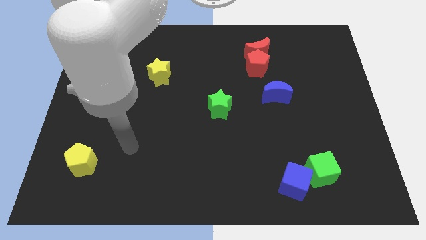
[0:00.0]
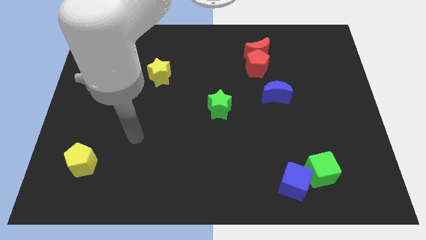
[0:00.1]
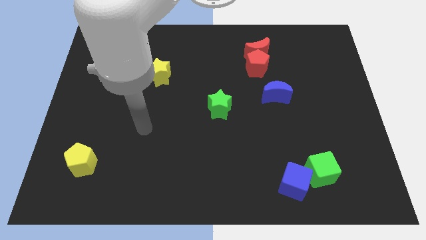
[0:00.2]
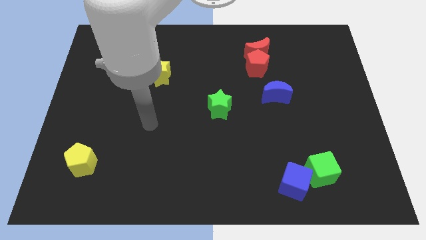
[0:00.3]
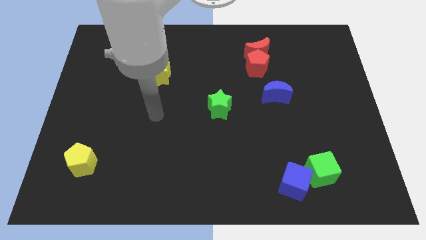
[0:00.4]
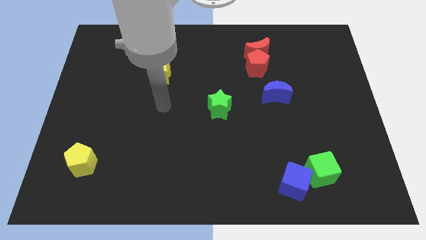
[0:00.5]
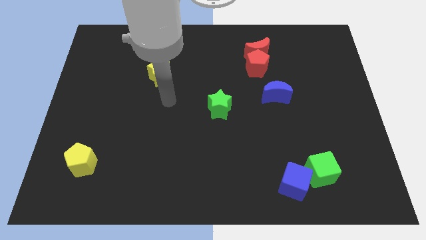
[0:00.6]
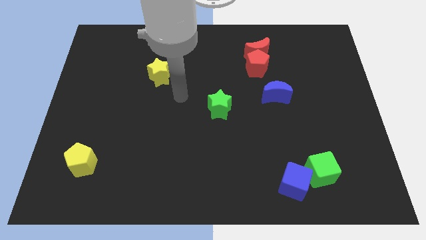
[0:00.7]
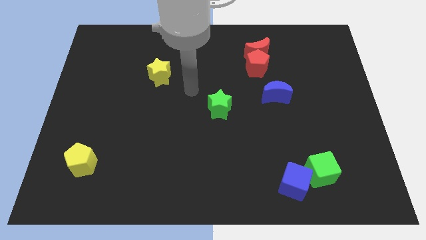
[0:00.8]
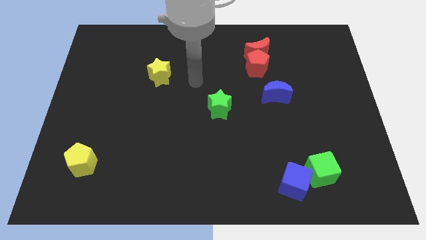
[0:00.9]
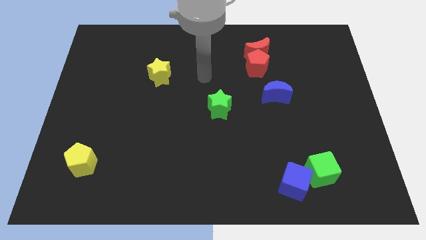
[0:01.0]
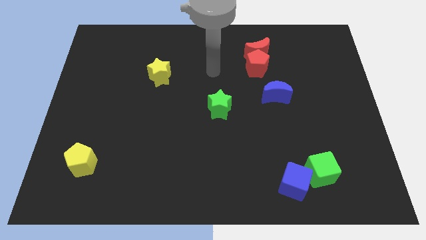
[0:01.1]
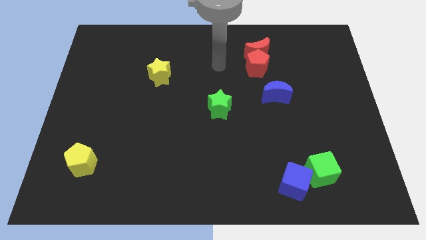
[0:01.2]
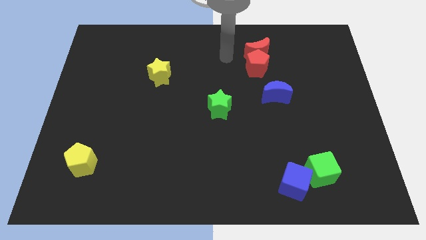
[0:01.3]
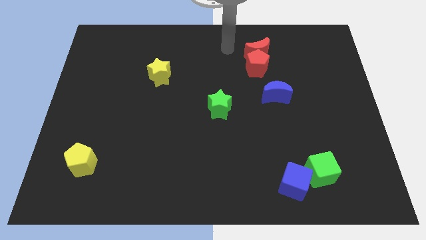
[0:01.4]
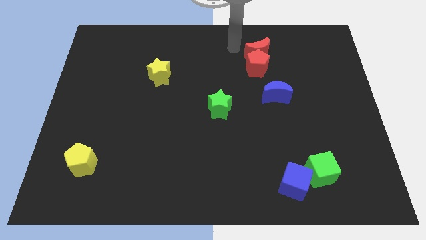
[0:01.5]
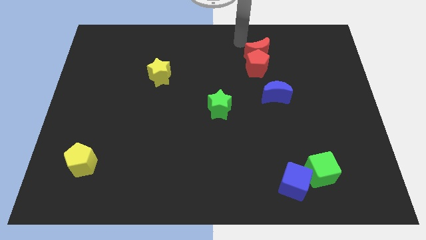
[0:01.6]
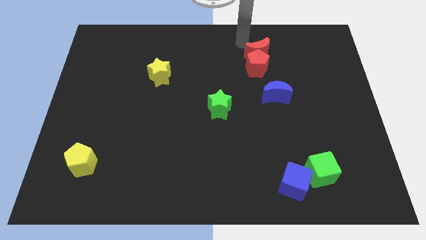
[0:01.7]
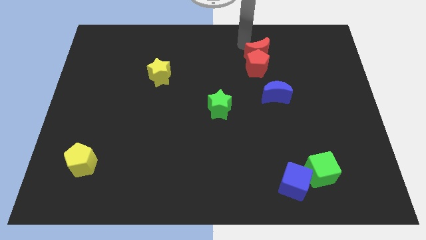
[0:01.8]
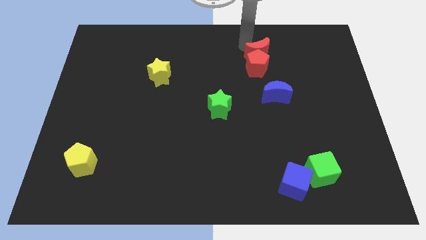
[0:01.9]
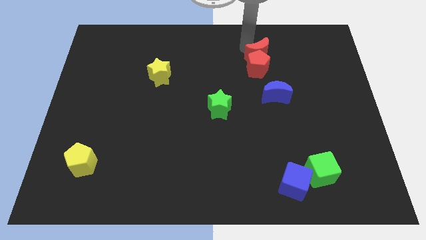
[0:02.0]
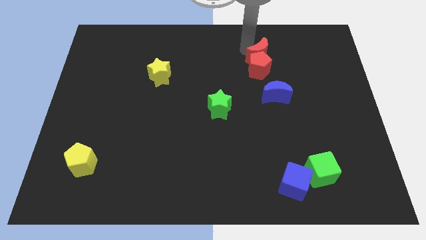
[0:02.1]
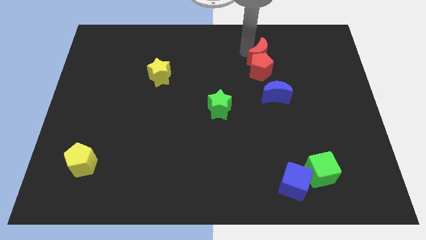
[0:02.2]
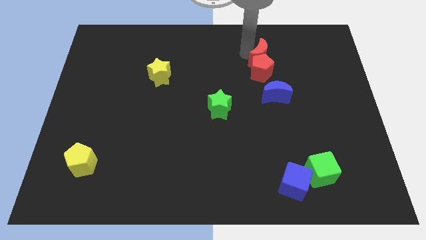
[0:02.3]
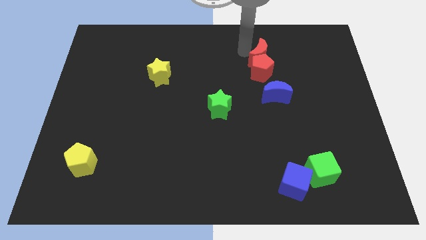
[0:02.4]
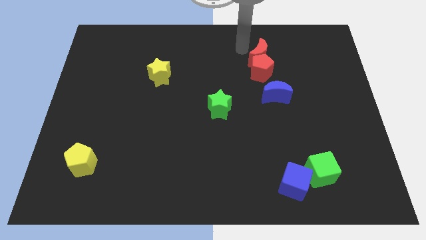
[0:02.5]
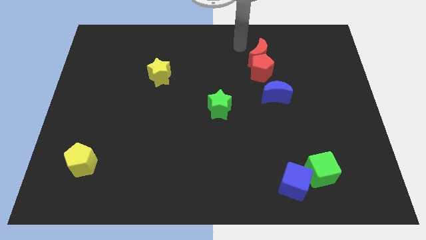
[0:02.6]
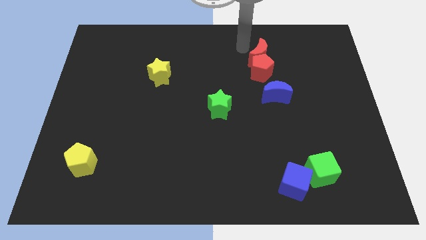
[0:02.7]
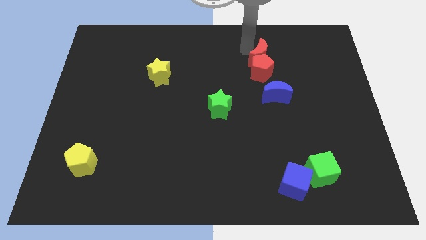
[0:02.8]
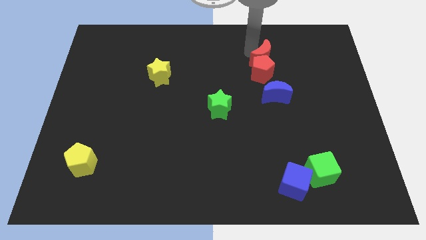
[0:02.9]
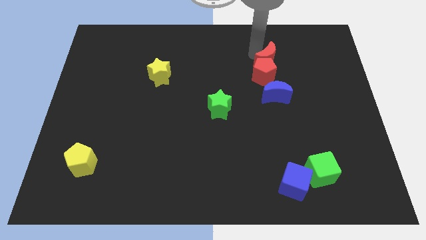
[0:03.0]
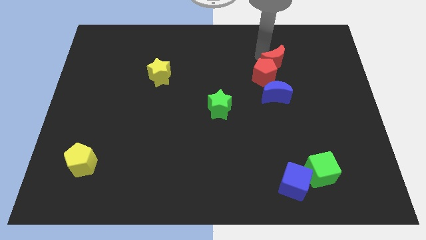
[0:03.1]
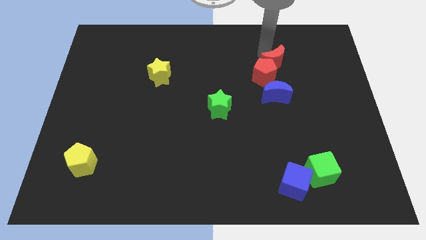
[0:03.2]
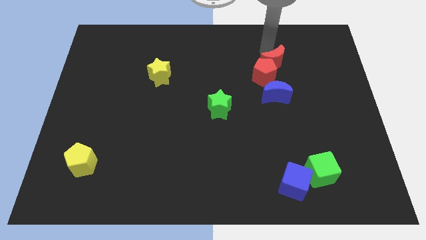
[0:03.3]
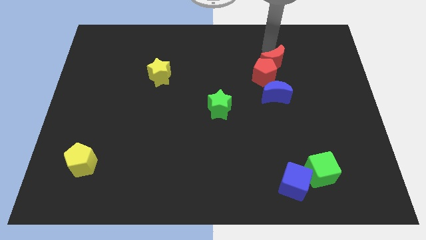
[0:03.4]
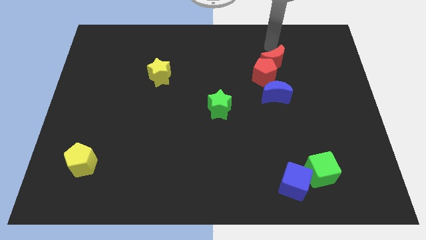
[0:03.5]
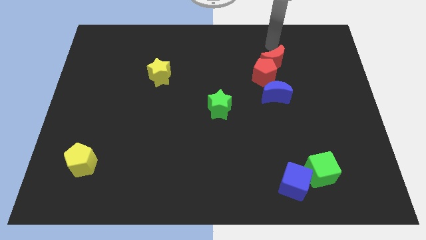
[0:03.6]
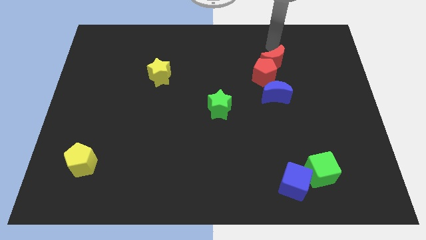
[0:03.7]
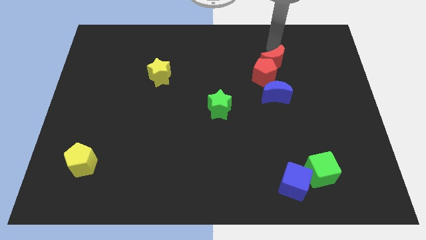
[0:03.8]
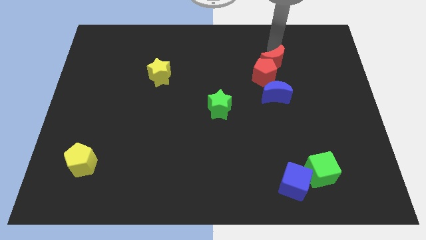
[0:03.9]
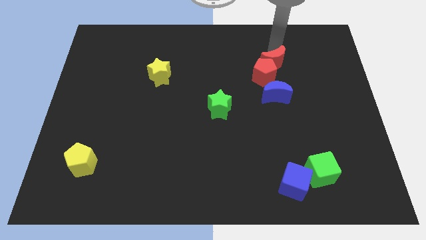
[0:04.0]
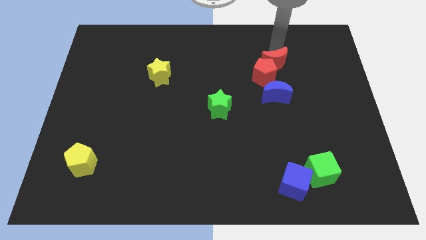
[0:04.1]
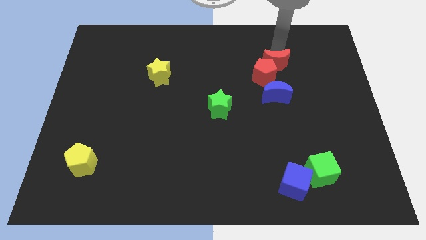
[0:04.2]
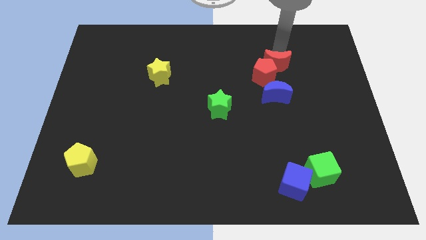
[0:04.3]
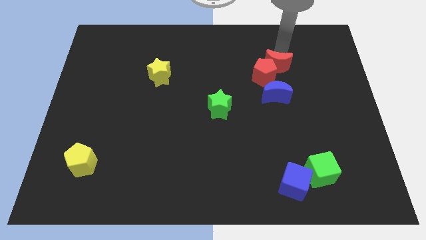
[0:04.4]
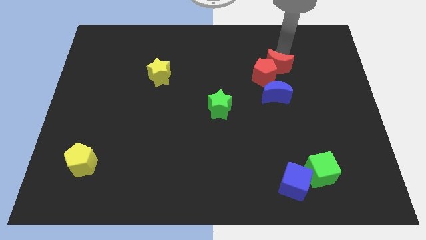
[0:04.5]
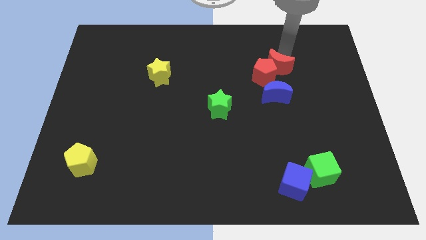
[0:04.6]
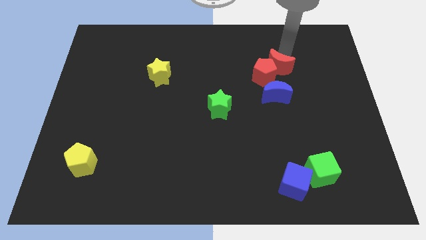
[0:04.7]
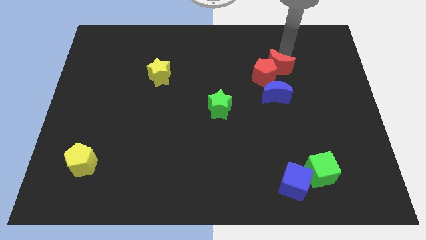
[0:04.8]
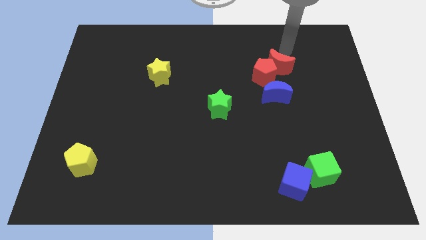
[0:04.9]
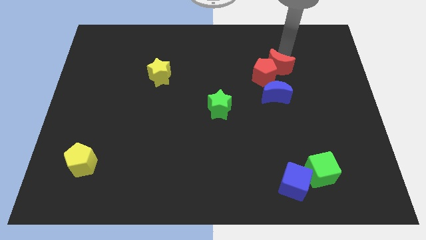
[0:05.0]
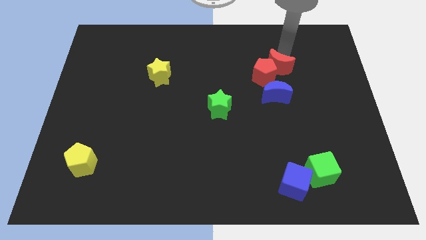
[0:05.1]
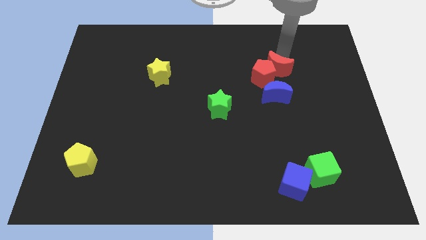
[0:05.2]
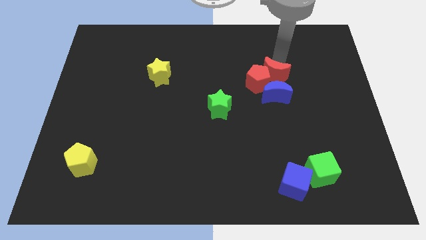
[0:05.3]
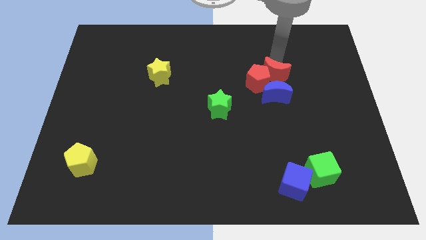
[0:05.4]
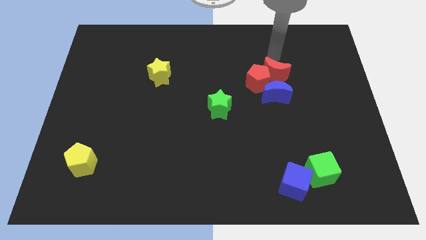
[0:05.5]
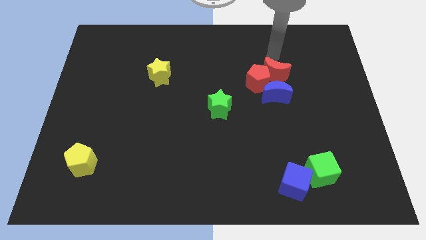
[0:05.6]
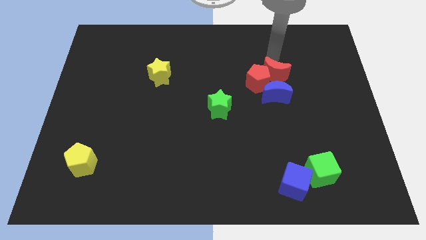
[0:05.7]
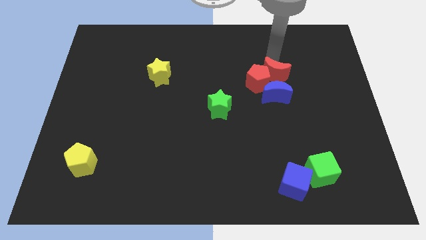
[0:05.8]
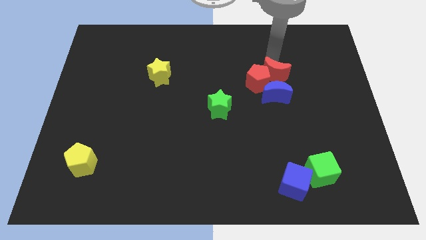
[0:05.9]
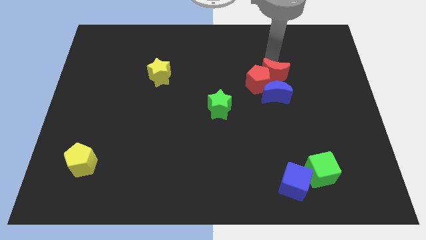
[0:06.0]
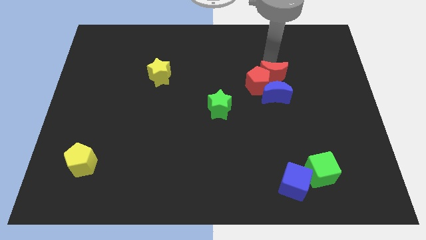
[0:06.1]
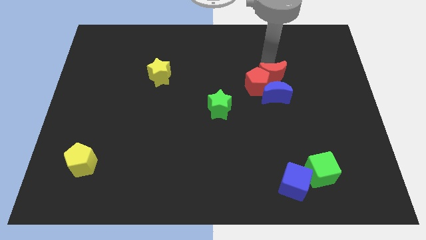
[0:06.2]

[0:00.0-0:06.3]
push the red moon to the blue moon

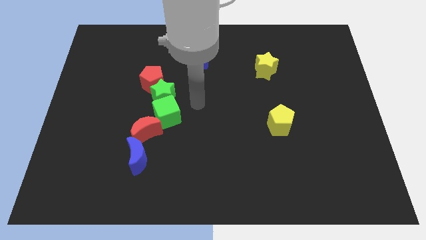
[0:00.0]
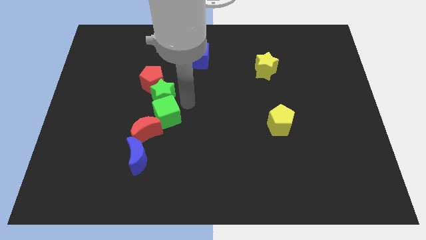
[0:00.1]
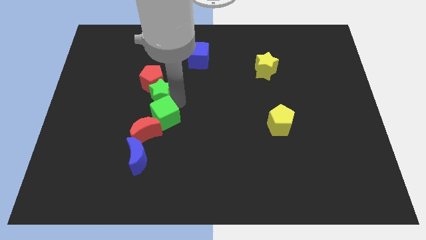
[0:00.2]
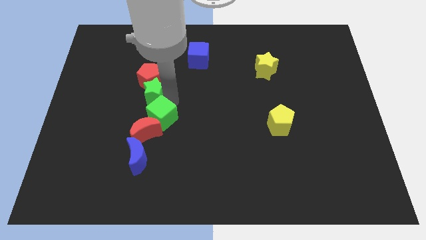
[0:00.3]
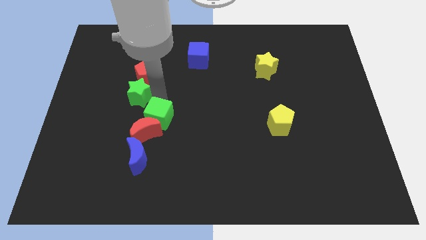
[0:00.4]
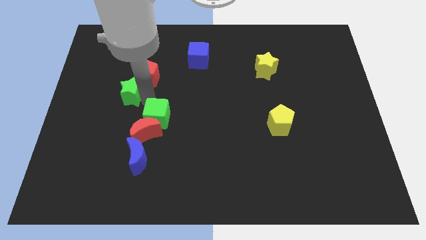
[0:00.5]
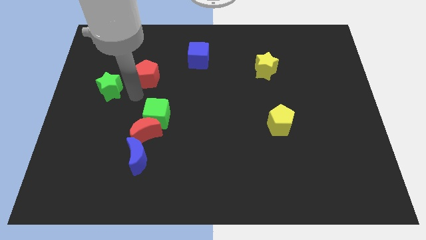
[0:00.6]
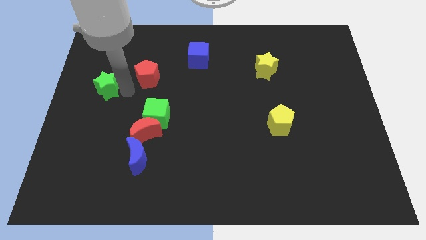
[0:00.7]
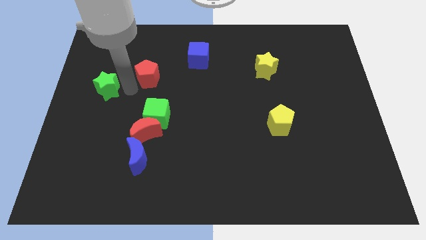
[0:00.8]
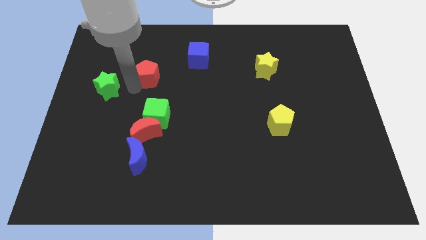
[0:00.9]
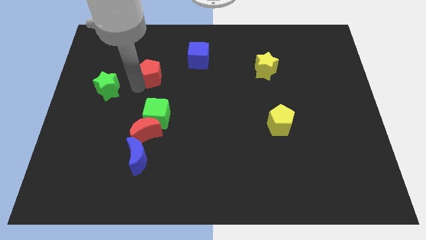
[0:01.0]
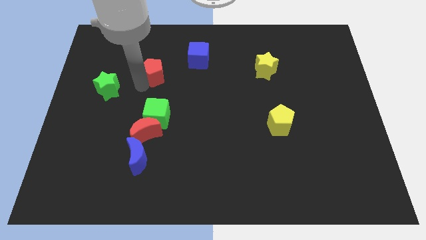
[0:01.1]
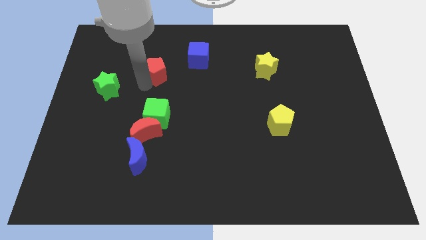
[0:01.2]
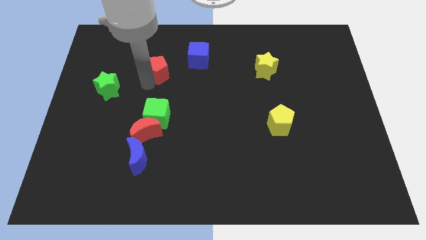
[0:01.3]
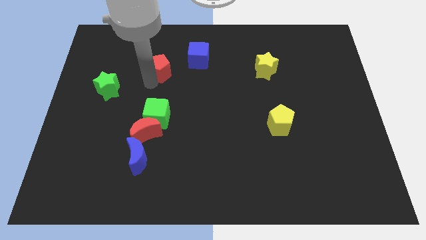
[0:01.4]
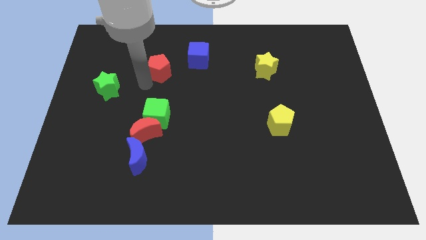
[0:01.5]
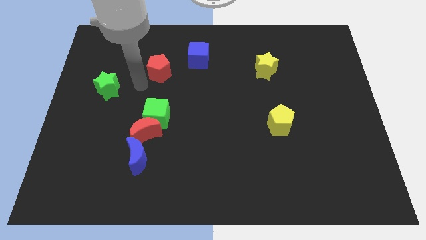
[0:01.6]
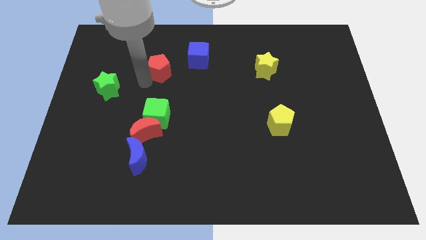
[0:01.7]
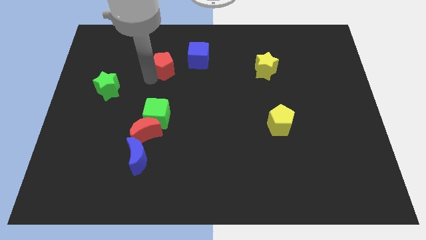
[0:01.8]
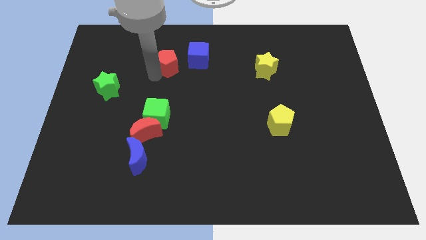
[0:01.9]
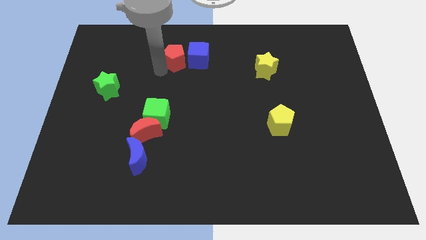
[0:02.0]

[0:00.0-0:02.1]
put the red pentagon close to the blue cube
